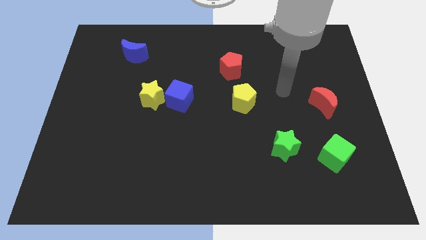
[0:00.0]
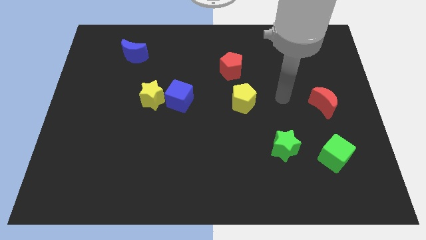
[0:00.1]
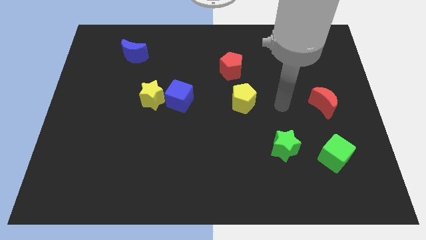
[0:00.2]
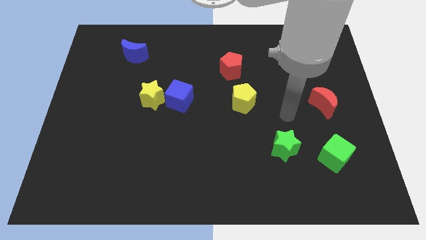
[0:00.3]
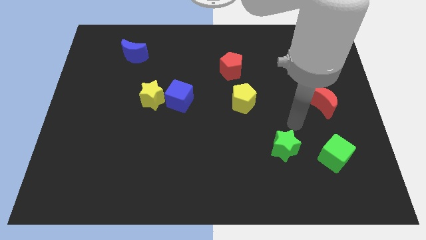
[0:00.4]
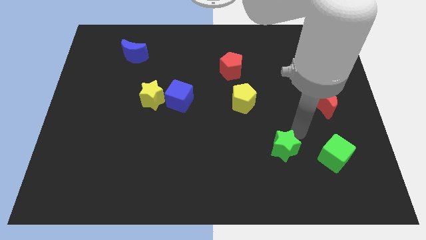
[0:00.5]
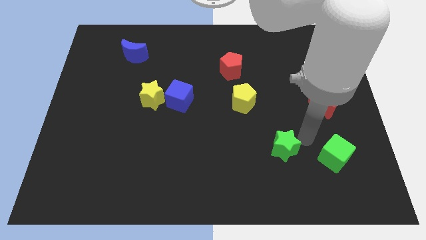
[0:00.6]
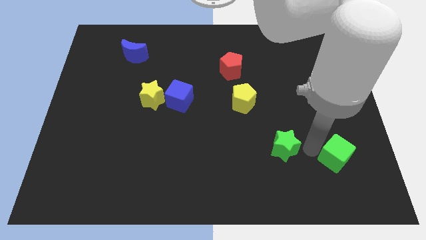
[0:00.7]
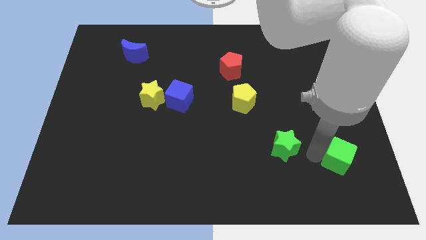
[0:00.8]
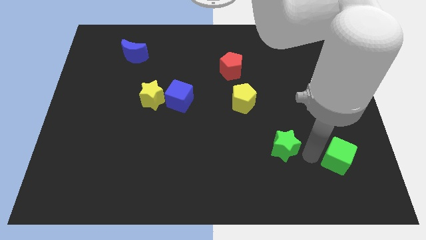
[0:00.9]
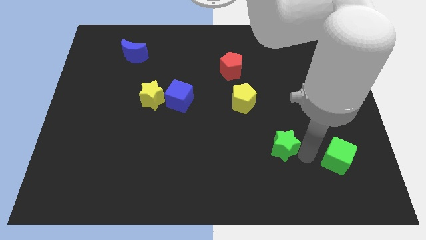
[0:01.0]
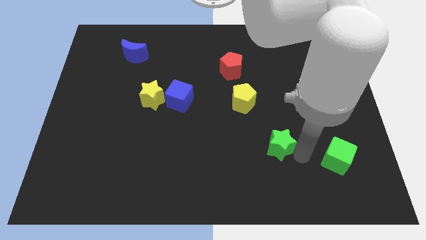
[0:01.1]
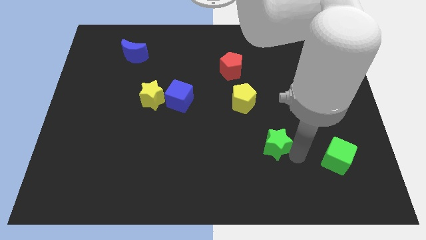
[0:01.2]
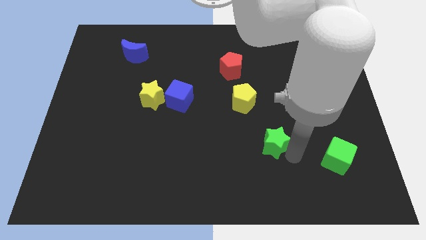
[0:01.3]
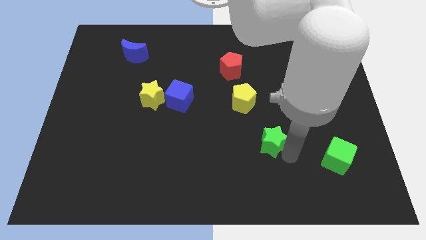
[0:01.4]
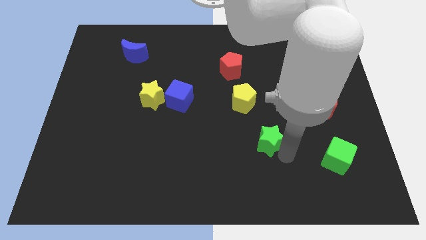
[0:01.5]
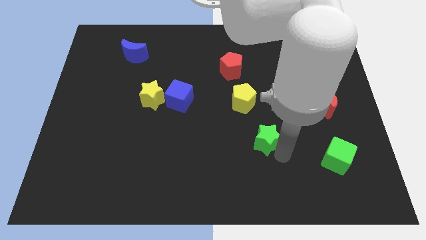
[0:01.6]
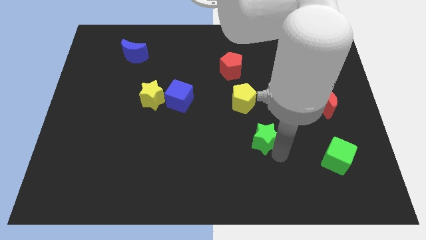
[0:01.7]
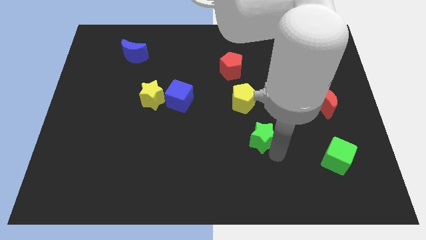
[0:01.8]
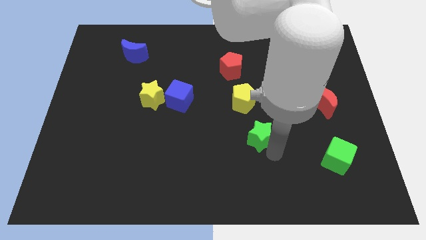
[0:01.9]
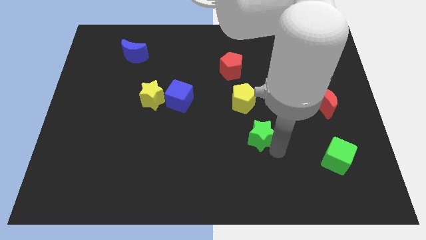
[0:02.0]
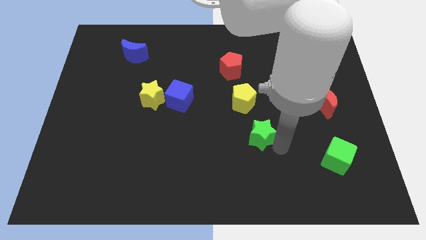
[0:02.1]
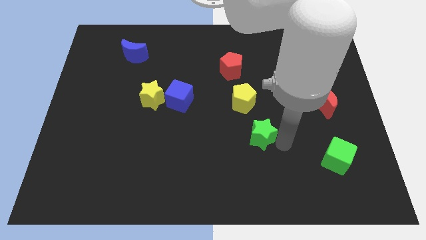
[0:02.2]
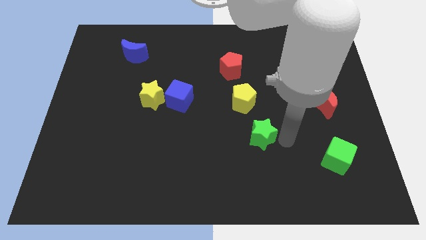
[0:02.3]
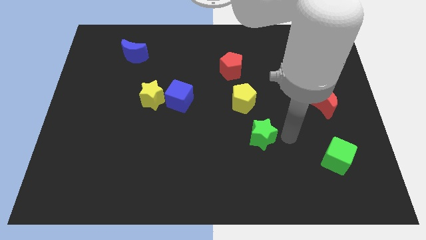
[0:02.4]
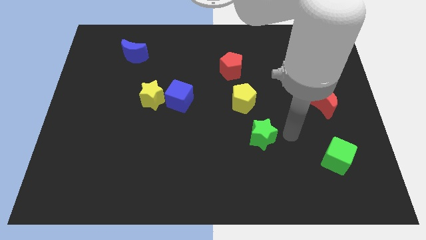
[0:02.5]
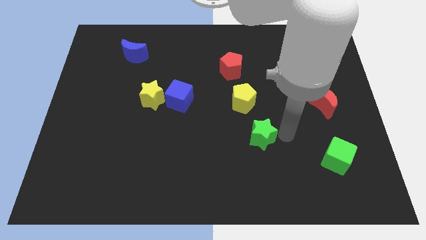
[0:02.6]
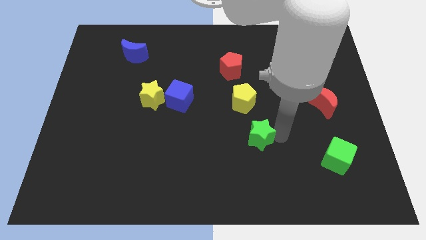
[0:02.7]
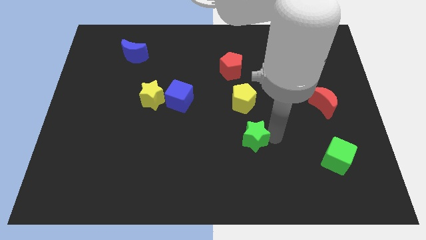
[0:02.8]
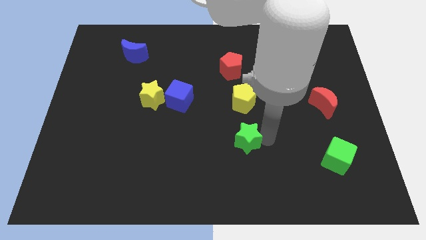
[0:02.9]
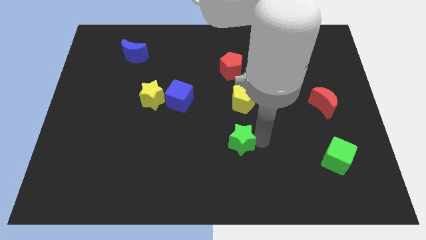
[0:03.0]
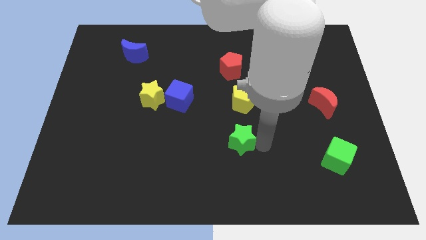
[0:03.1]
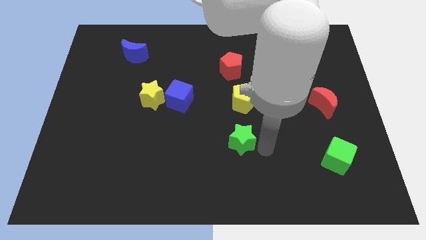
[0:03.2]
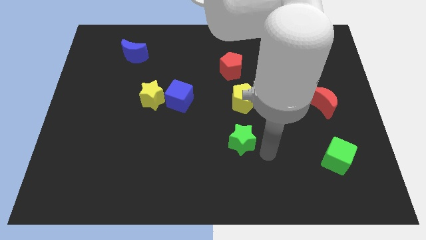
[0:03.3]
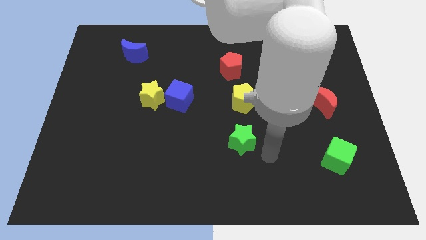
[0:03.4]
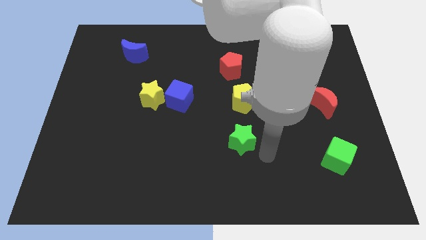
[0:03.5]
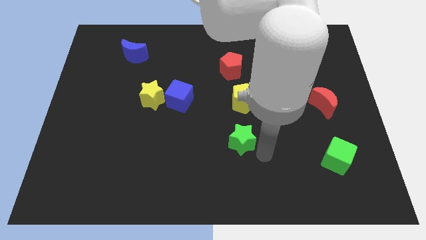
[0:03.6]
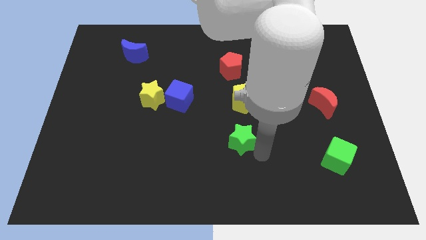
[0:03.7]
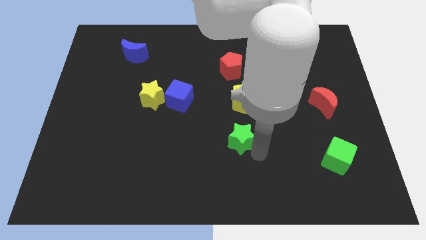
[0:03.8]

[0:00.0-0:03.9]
slightly move the green star diagonally up and left

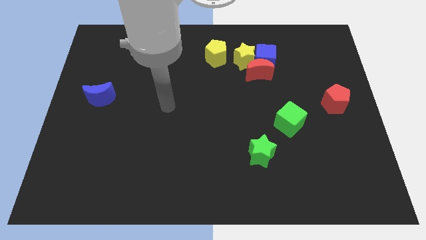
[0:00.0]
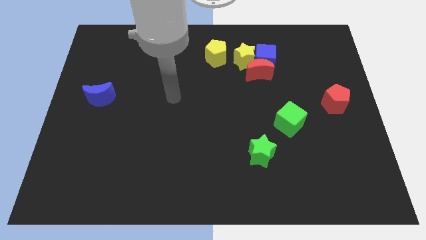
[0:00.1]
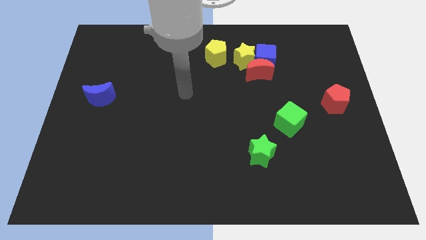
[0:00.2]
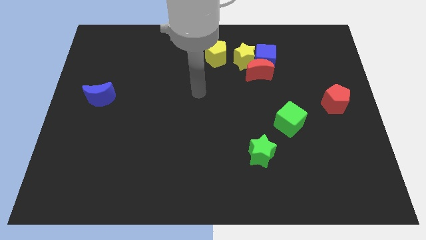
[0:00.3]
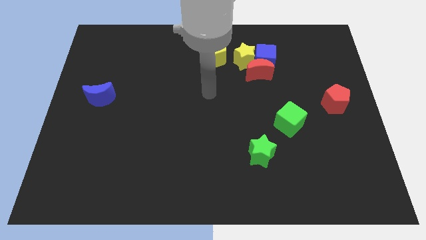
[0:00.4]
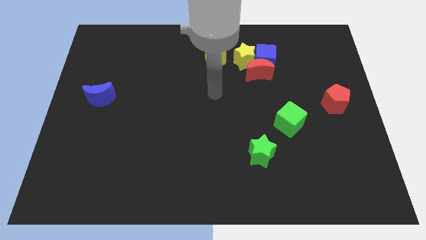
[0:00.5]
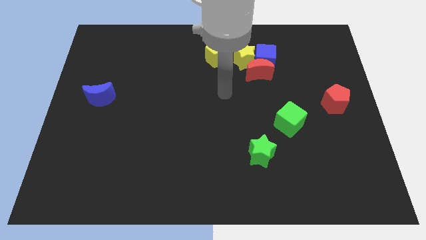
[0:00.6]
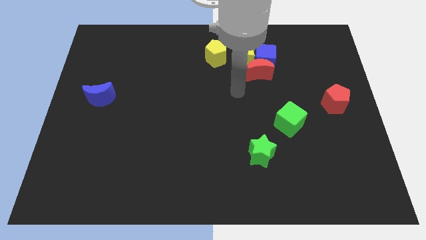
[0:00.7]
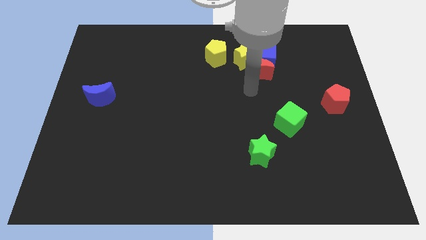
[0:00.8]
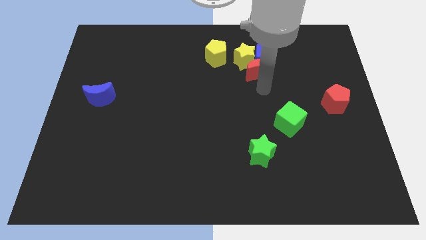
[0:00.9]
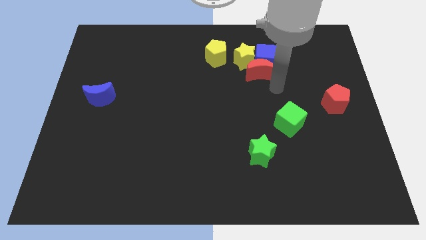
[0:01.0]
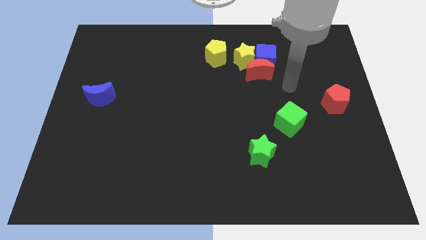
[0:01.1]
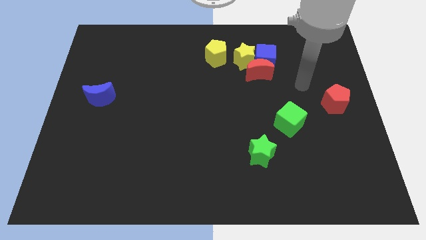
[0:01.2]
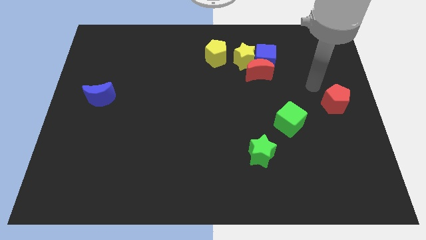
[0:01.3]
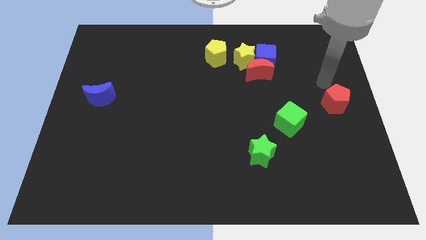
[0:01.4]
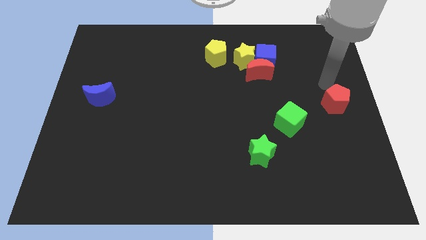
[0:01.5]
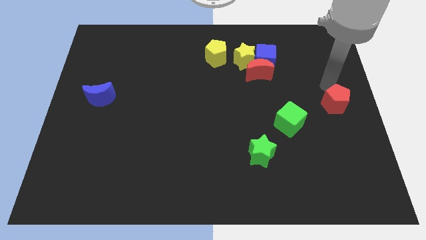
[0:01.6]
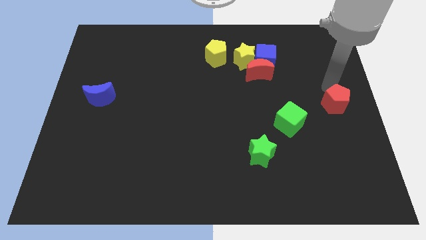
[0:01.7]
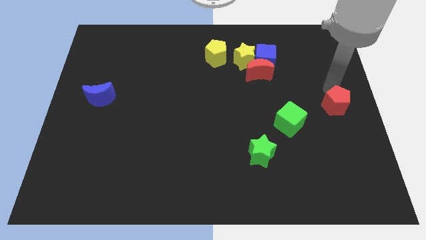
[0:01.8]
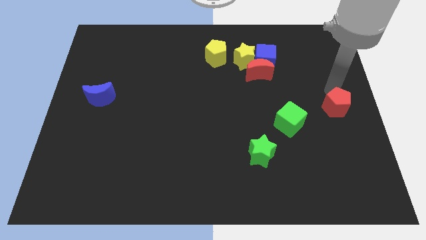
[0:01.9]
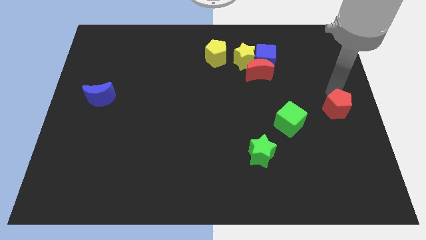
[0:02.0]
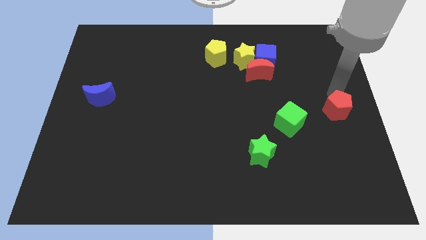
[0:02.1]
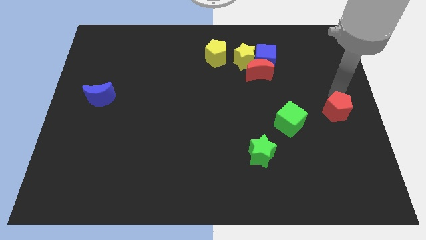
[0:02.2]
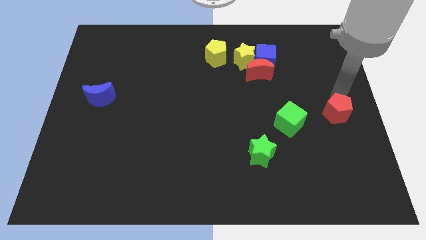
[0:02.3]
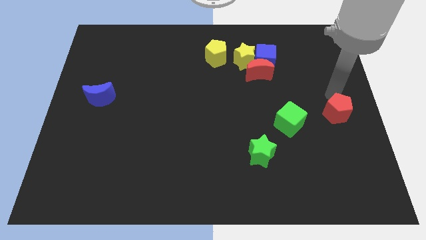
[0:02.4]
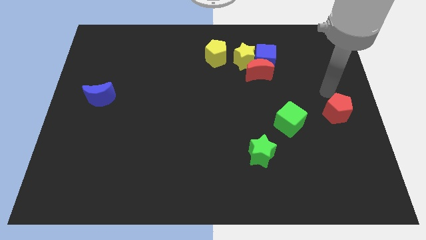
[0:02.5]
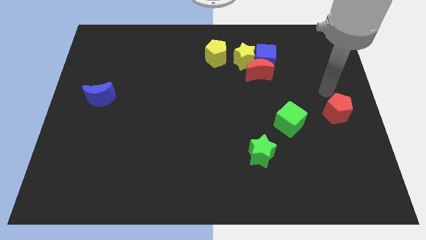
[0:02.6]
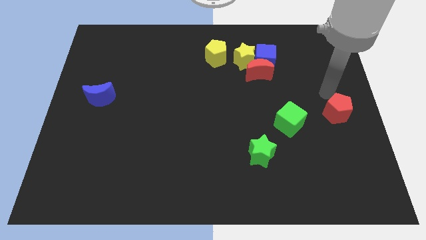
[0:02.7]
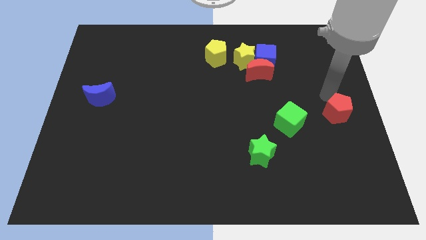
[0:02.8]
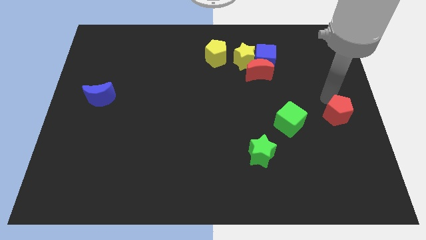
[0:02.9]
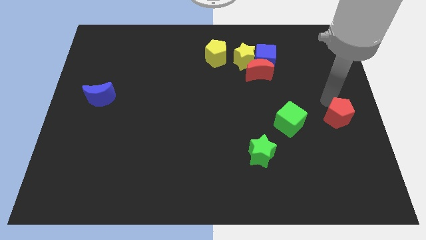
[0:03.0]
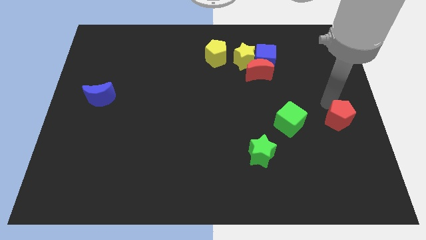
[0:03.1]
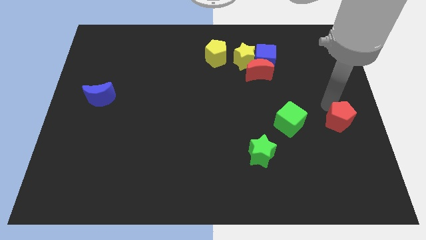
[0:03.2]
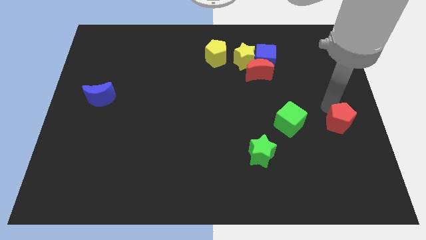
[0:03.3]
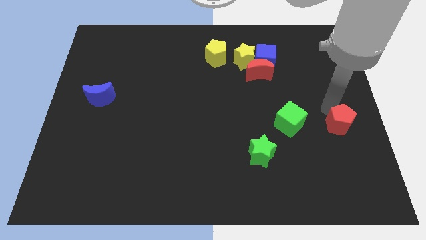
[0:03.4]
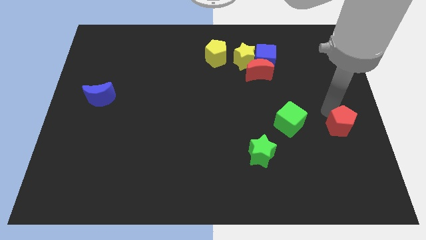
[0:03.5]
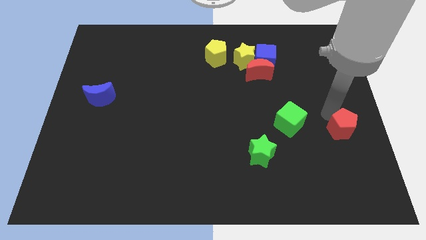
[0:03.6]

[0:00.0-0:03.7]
push the red pentagon a little down

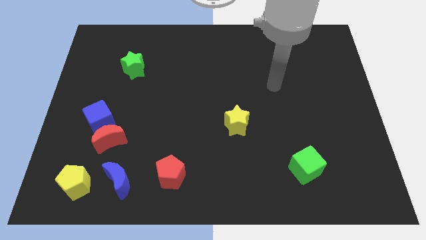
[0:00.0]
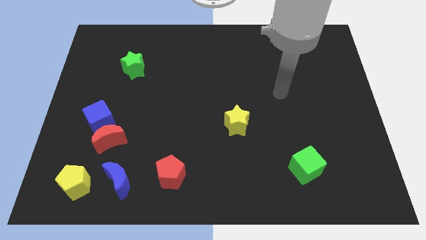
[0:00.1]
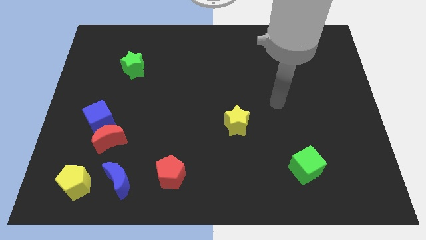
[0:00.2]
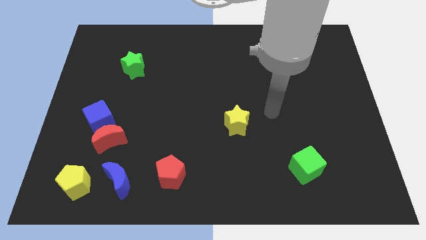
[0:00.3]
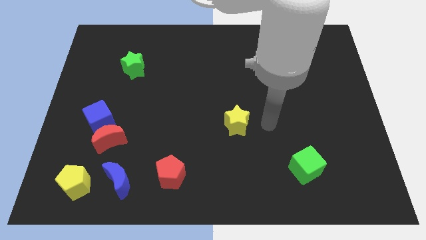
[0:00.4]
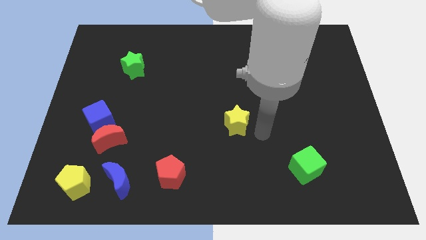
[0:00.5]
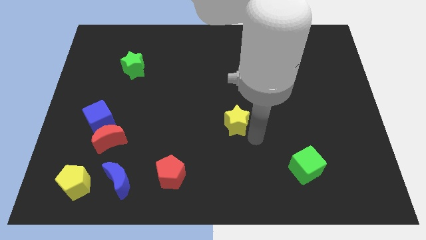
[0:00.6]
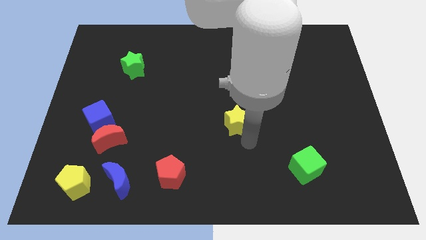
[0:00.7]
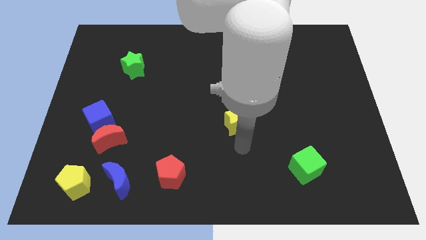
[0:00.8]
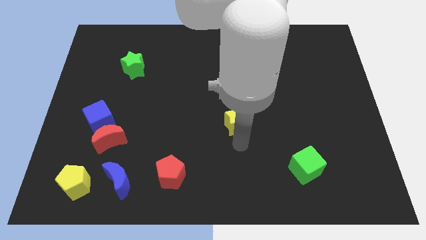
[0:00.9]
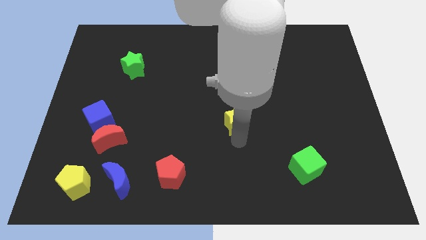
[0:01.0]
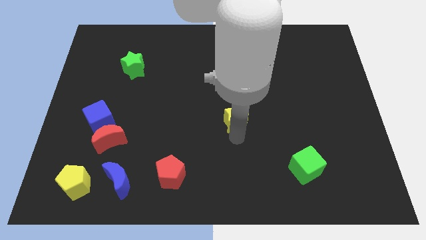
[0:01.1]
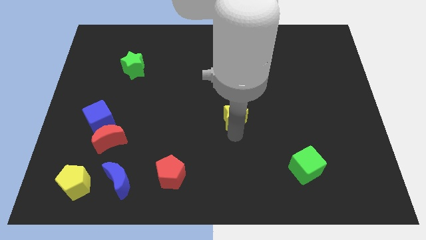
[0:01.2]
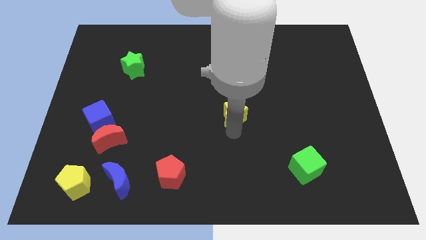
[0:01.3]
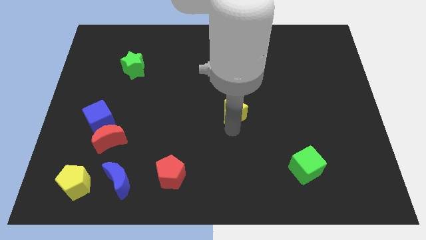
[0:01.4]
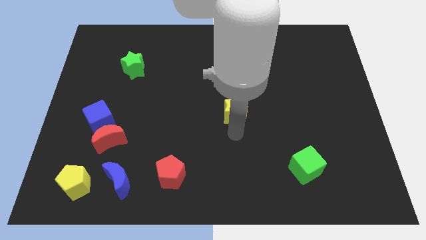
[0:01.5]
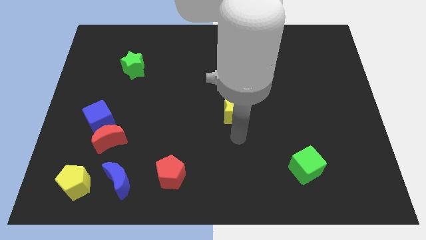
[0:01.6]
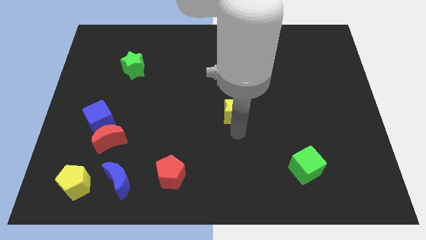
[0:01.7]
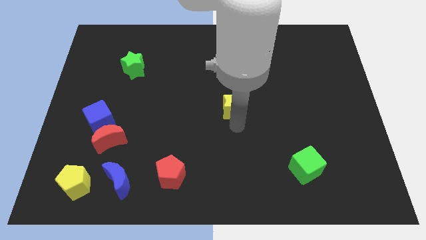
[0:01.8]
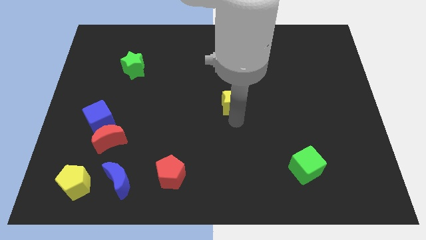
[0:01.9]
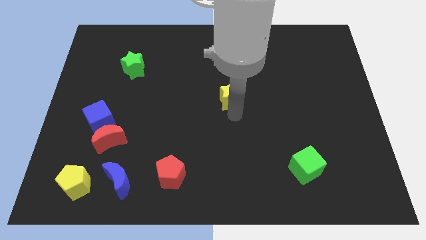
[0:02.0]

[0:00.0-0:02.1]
push the yellow star upwards a little
